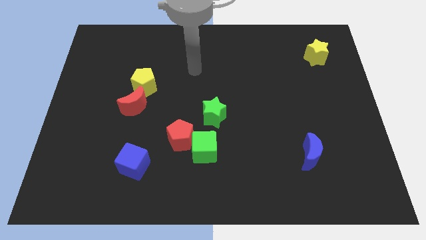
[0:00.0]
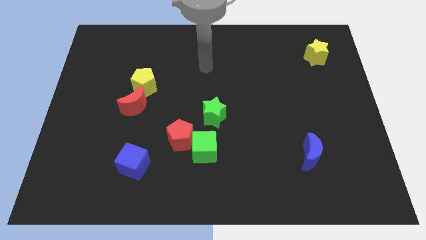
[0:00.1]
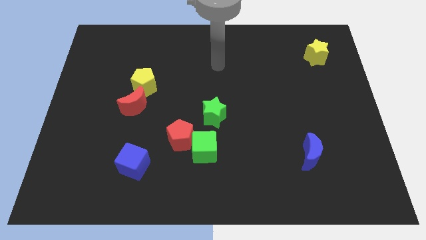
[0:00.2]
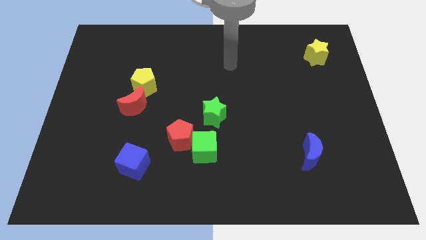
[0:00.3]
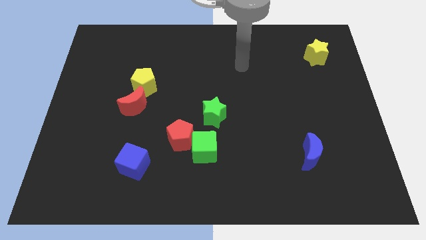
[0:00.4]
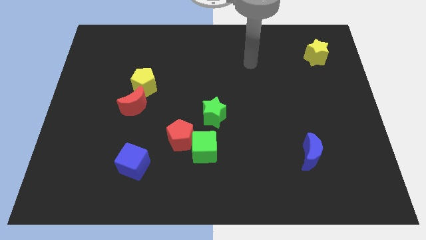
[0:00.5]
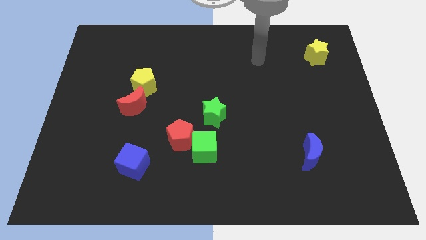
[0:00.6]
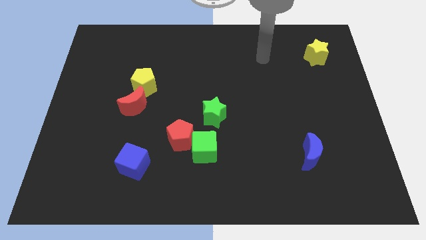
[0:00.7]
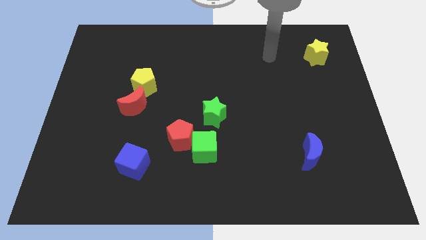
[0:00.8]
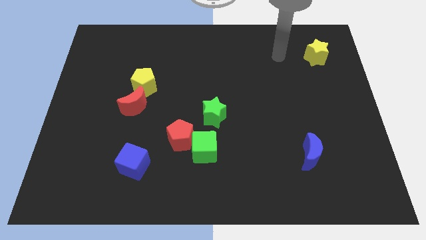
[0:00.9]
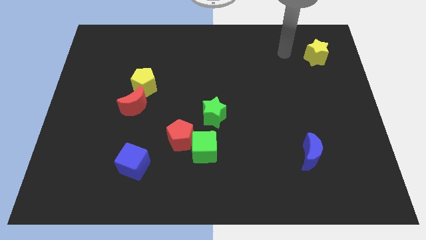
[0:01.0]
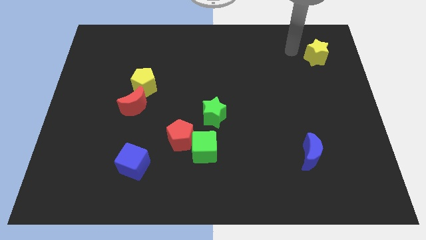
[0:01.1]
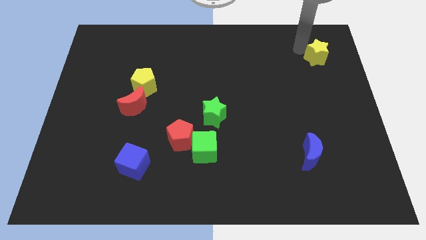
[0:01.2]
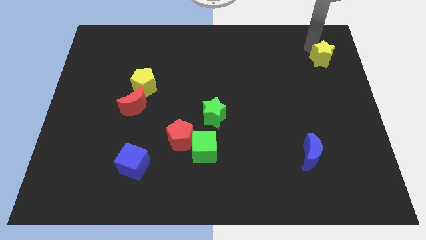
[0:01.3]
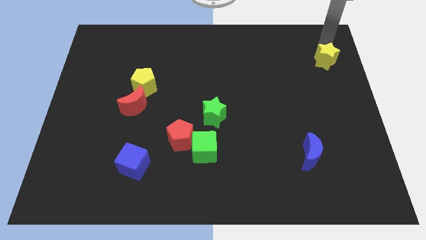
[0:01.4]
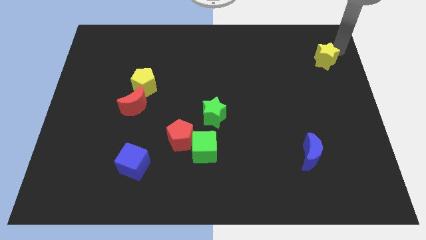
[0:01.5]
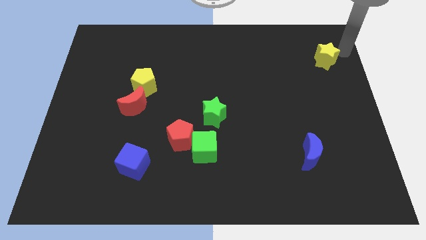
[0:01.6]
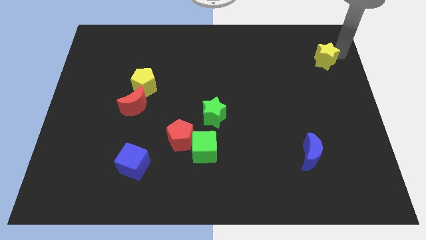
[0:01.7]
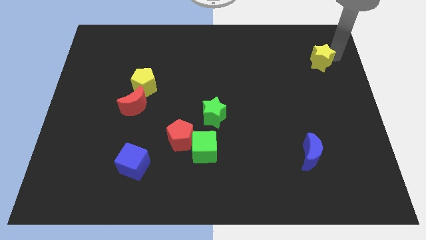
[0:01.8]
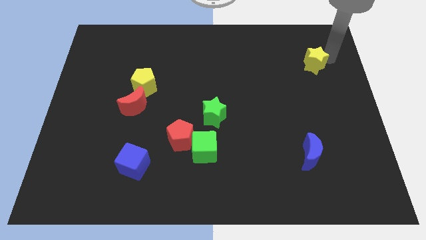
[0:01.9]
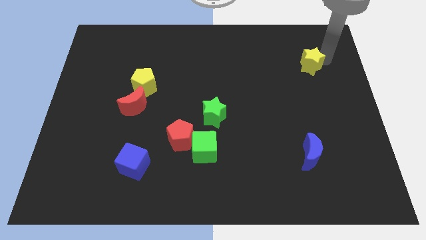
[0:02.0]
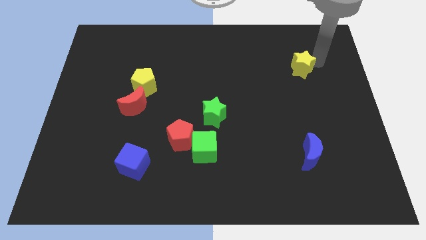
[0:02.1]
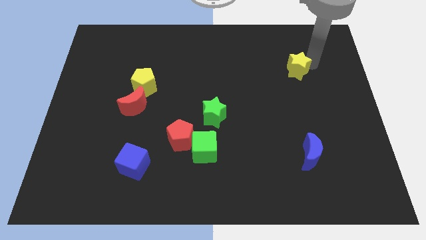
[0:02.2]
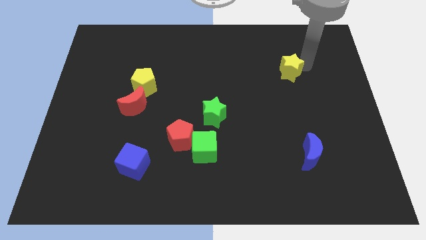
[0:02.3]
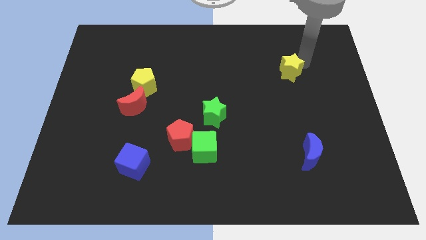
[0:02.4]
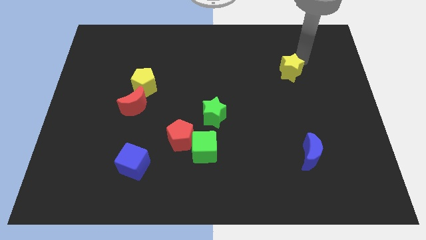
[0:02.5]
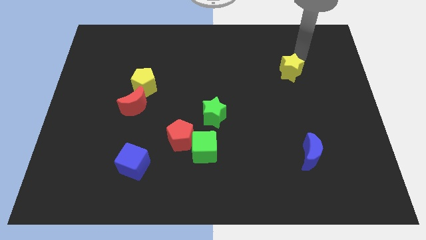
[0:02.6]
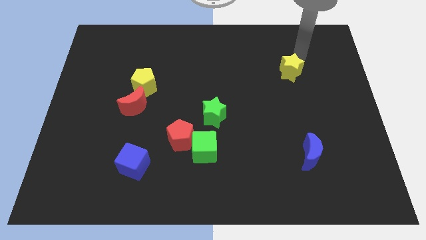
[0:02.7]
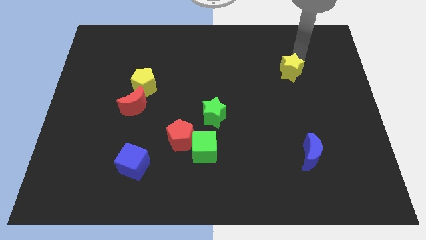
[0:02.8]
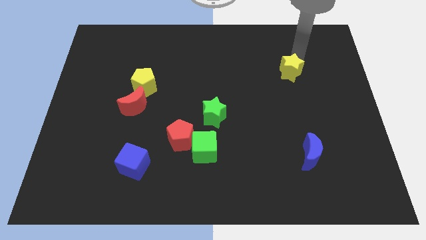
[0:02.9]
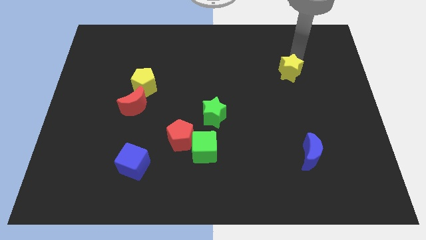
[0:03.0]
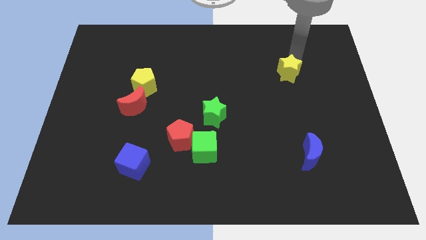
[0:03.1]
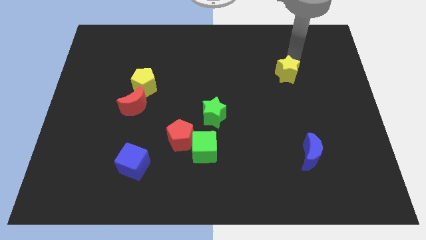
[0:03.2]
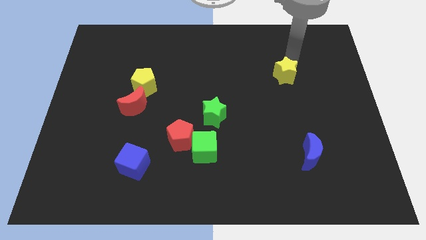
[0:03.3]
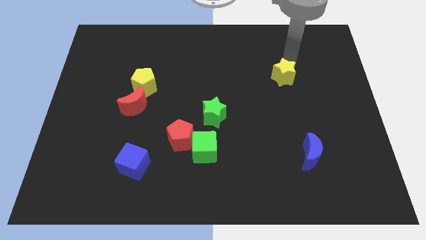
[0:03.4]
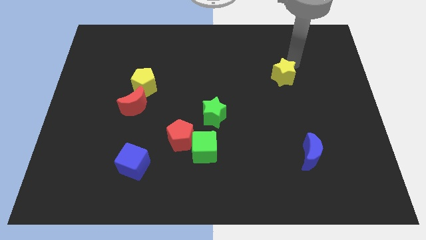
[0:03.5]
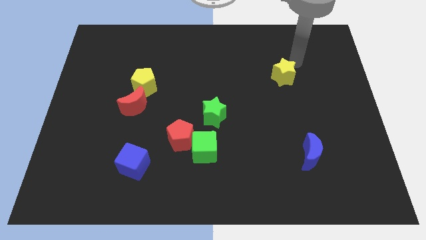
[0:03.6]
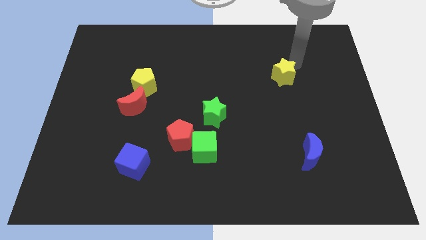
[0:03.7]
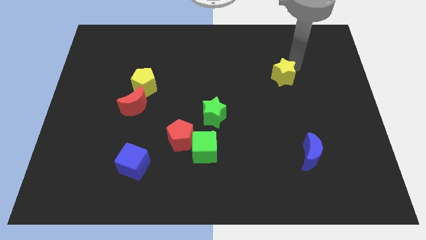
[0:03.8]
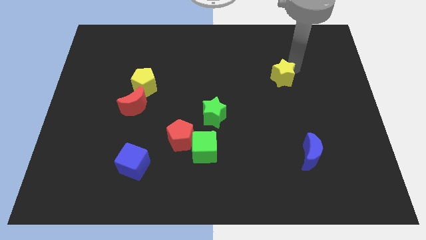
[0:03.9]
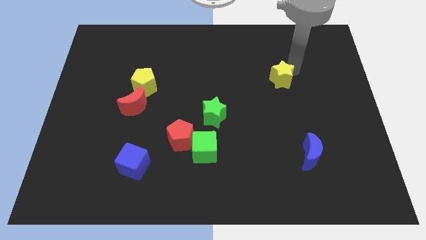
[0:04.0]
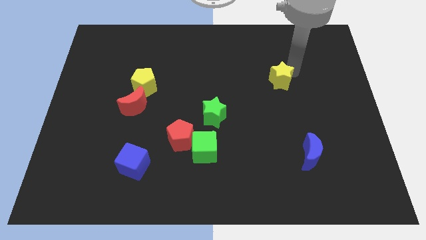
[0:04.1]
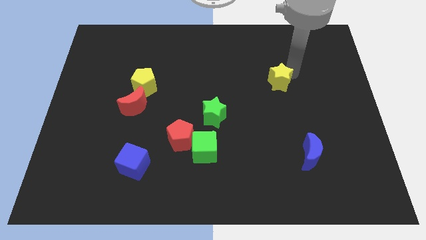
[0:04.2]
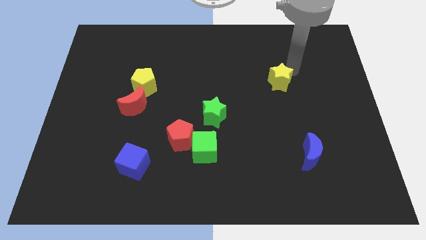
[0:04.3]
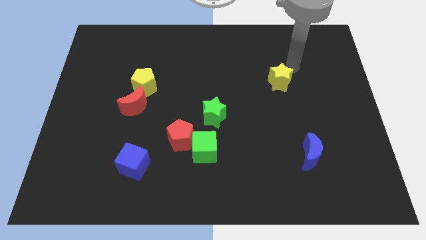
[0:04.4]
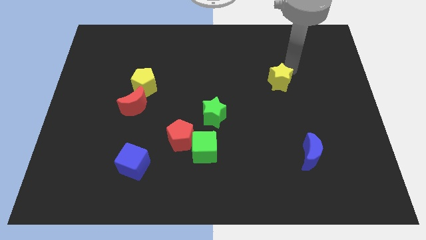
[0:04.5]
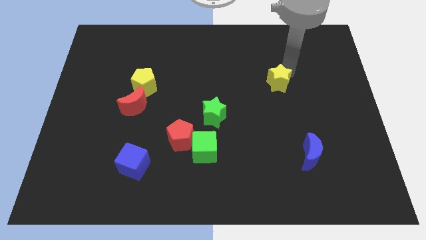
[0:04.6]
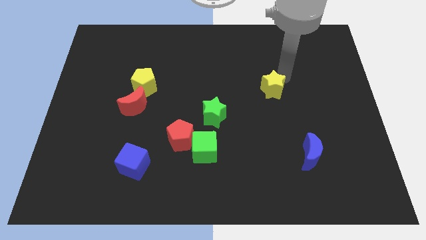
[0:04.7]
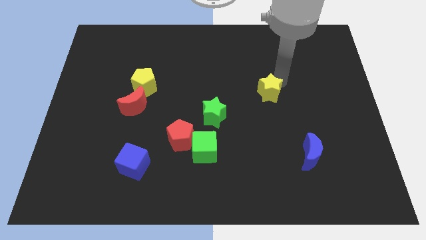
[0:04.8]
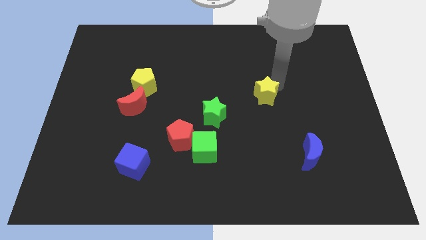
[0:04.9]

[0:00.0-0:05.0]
push the yellow star diagonally down and left

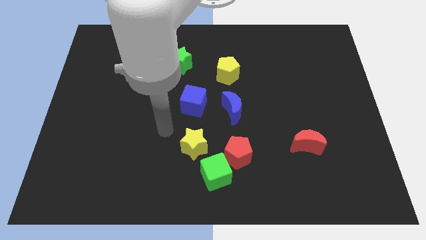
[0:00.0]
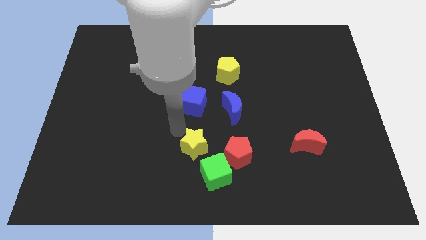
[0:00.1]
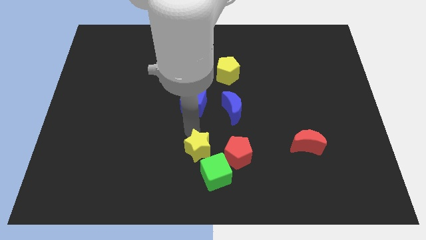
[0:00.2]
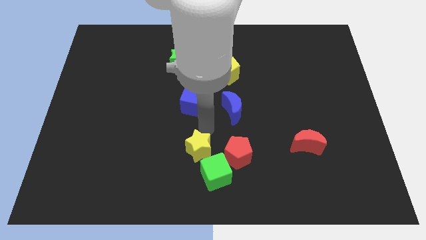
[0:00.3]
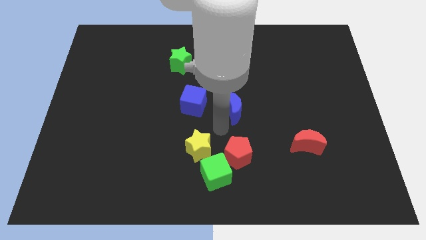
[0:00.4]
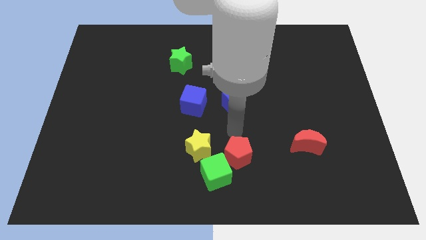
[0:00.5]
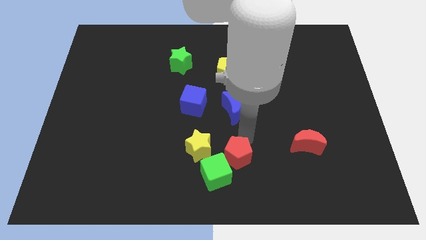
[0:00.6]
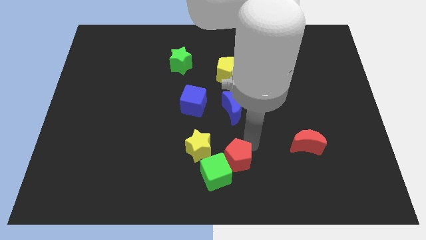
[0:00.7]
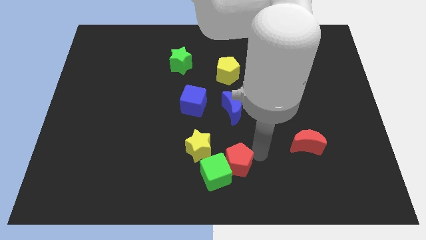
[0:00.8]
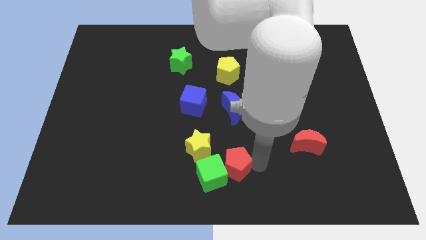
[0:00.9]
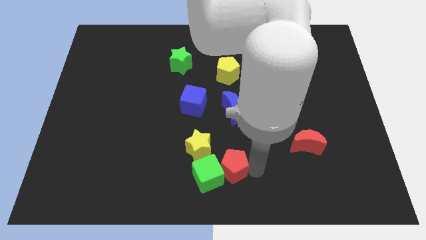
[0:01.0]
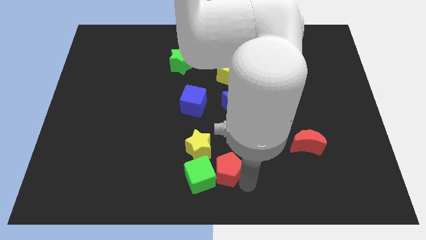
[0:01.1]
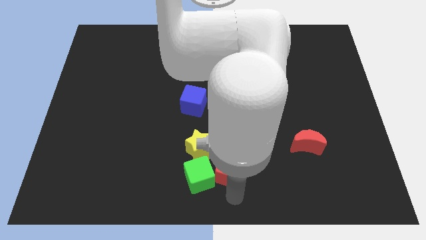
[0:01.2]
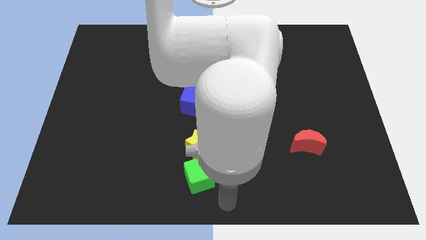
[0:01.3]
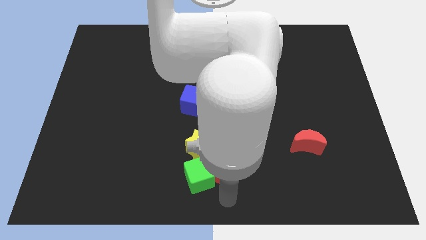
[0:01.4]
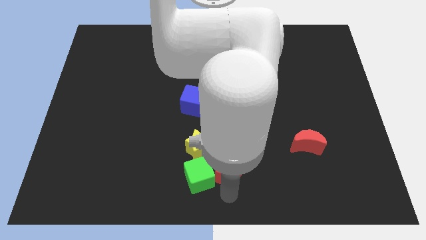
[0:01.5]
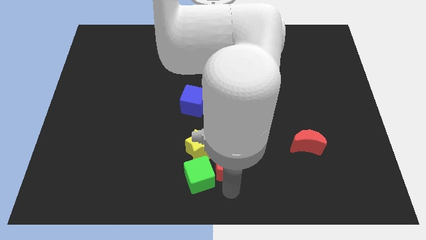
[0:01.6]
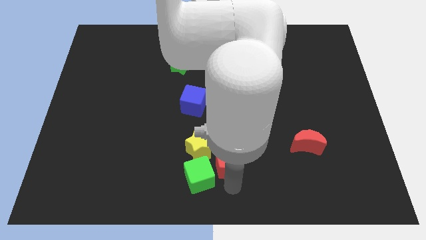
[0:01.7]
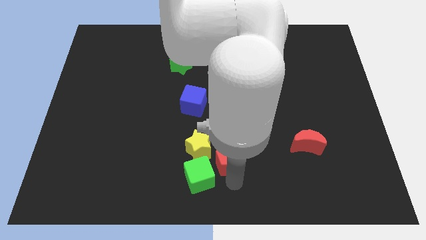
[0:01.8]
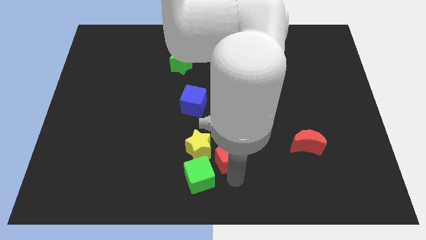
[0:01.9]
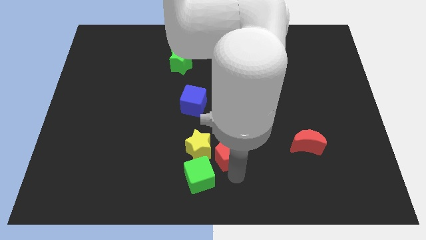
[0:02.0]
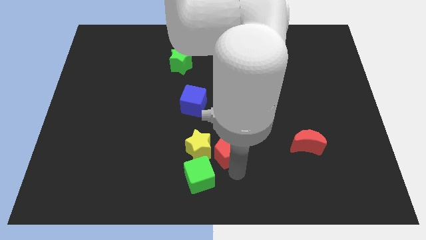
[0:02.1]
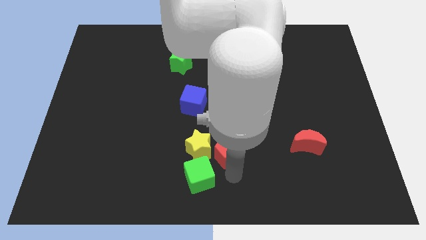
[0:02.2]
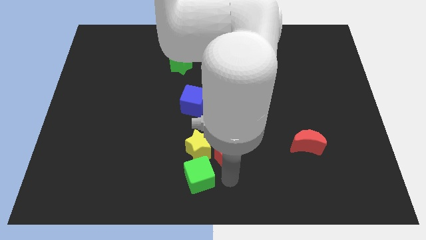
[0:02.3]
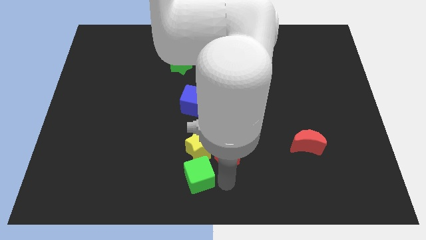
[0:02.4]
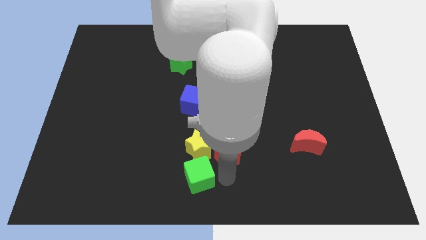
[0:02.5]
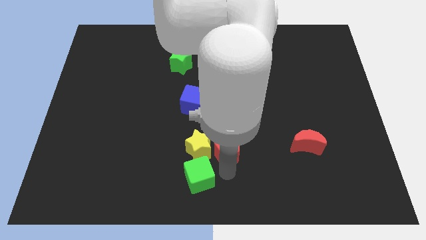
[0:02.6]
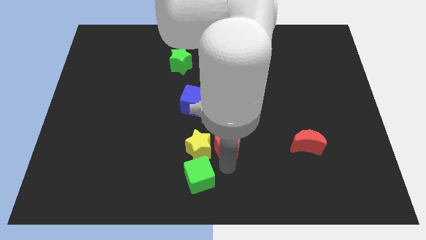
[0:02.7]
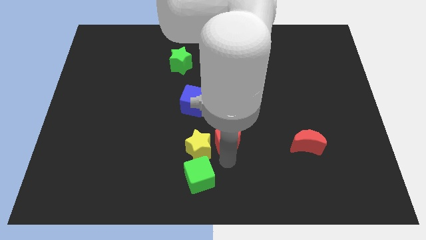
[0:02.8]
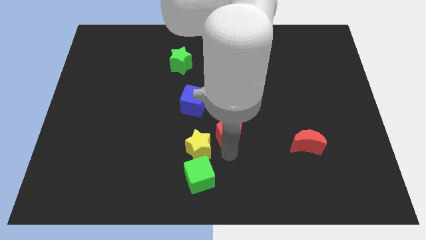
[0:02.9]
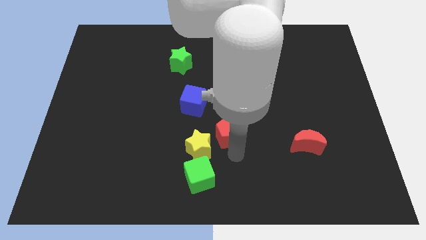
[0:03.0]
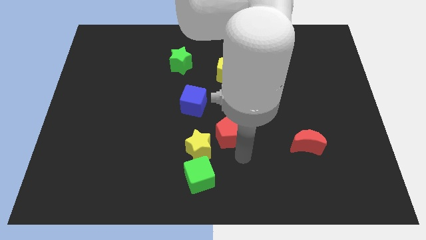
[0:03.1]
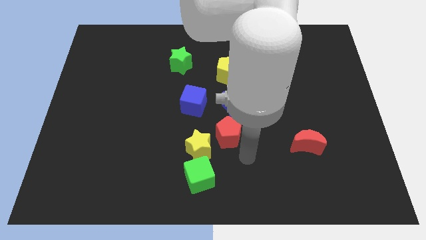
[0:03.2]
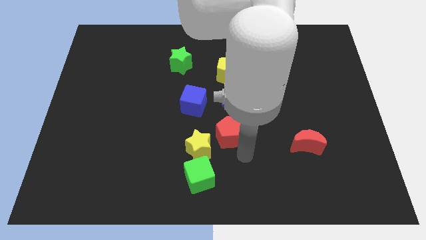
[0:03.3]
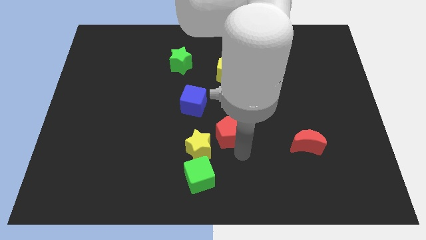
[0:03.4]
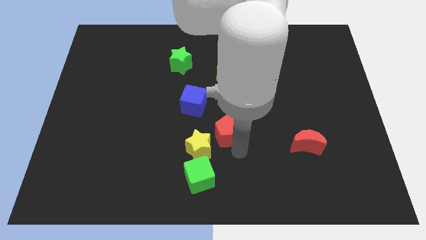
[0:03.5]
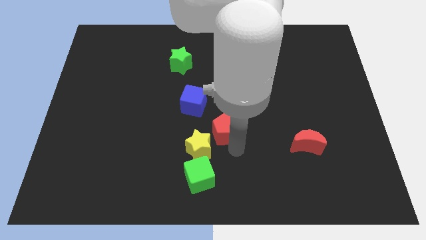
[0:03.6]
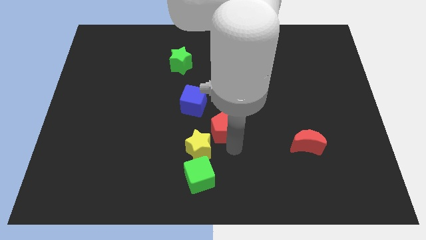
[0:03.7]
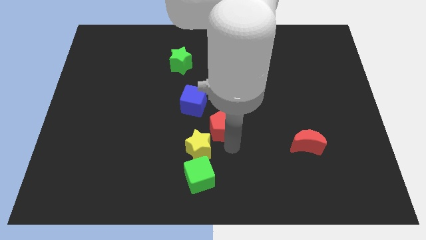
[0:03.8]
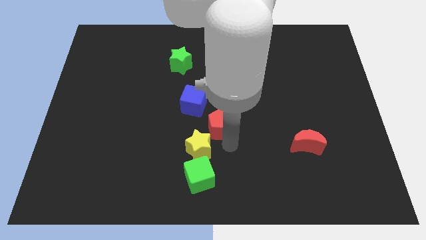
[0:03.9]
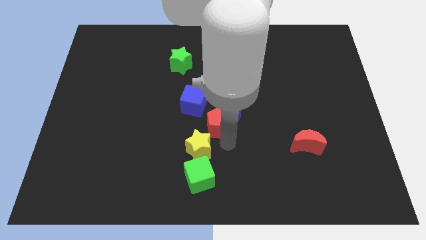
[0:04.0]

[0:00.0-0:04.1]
slightly move the red pentagon upwards
